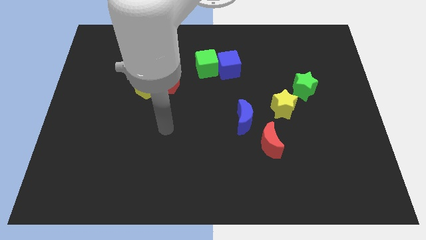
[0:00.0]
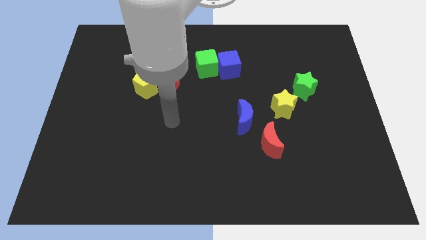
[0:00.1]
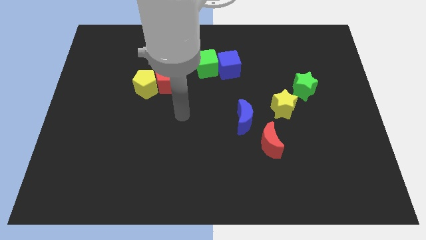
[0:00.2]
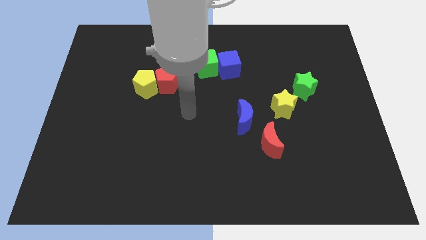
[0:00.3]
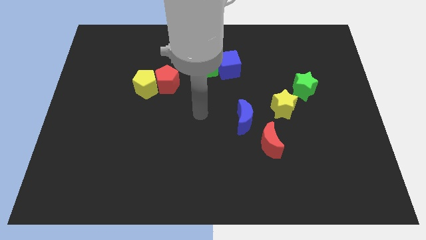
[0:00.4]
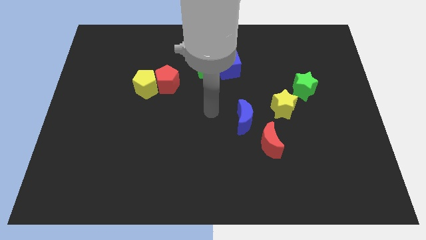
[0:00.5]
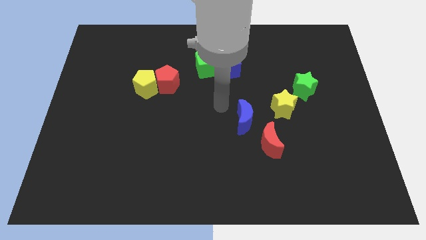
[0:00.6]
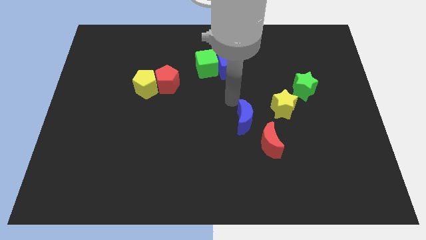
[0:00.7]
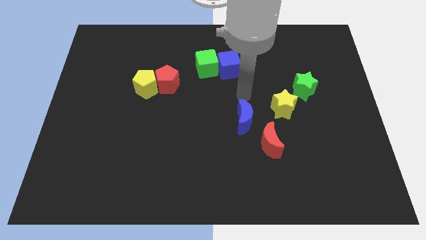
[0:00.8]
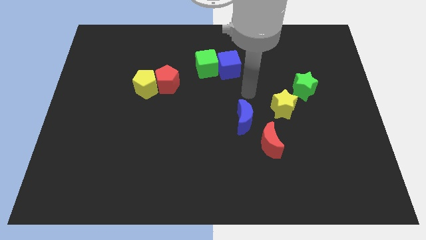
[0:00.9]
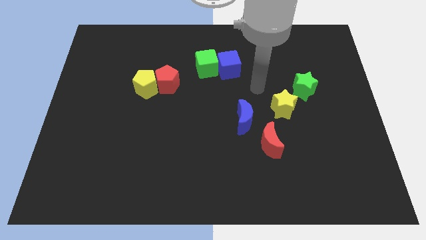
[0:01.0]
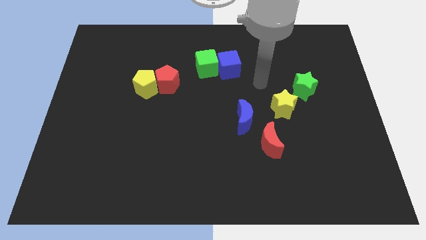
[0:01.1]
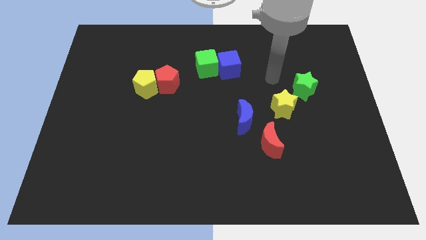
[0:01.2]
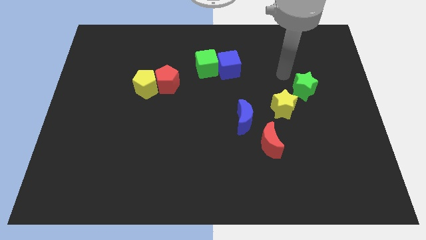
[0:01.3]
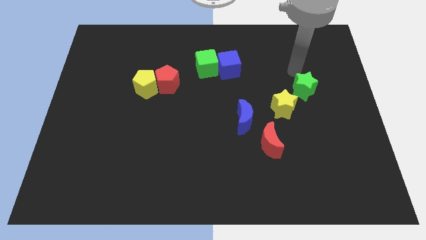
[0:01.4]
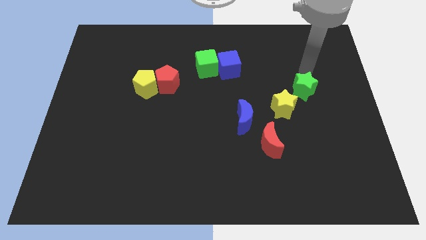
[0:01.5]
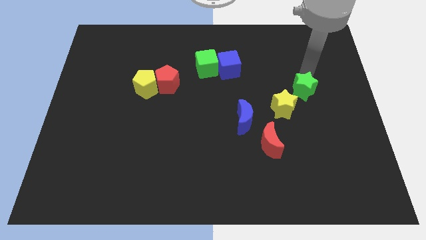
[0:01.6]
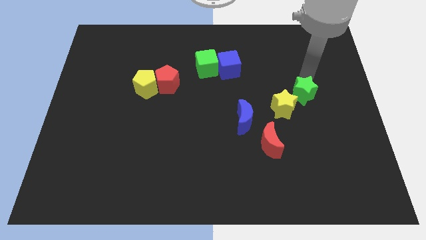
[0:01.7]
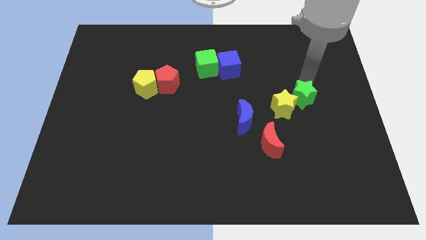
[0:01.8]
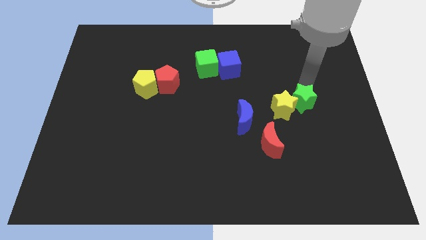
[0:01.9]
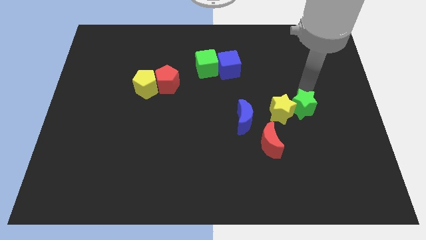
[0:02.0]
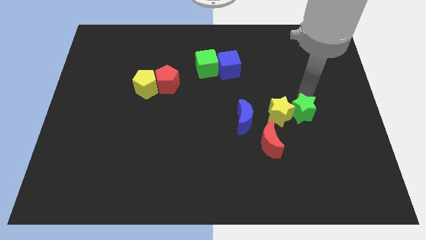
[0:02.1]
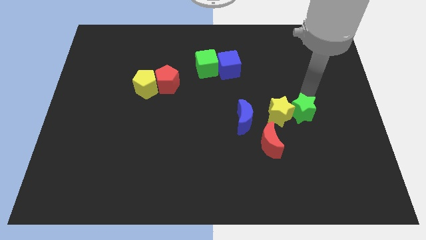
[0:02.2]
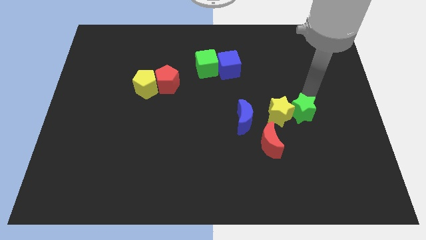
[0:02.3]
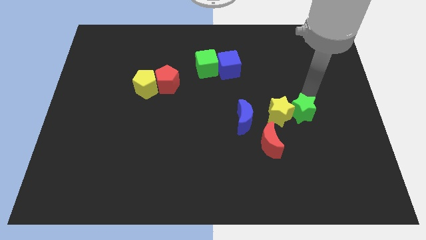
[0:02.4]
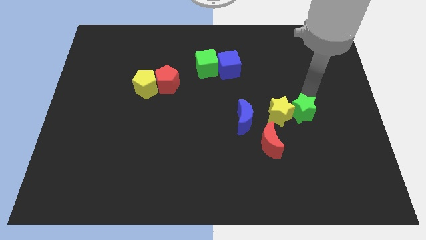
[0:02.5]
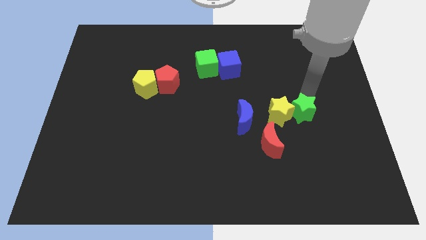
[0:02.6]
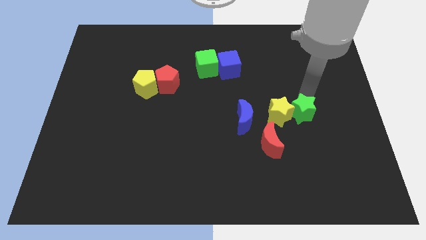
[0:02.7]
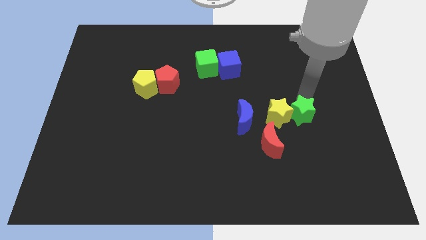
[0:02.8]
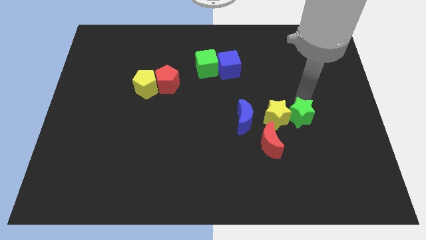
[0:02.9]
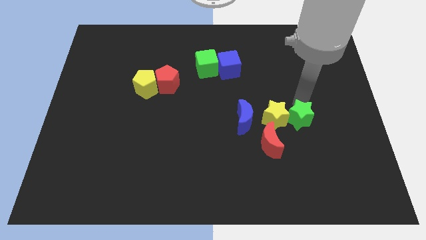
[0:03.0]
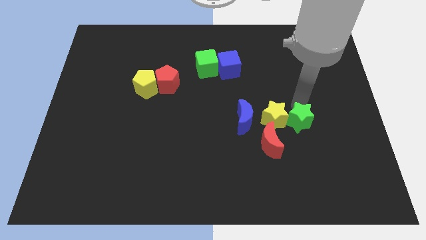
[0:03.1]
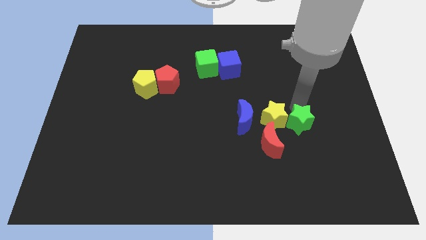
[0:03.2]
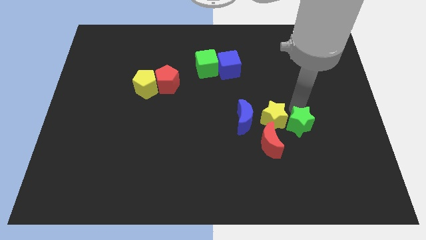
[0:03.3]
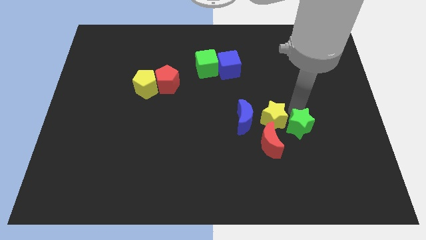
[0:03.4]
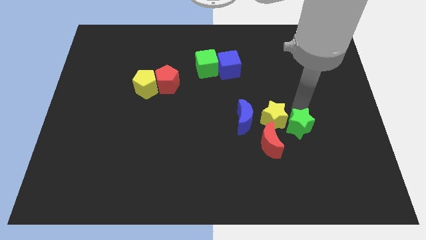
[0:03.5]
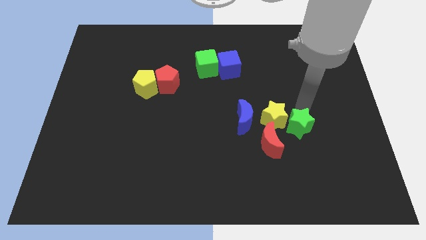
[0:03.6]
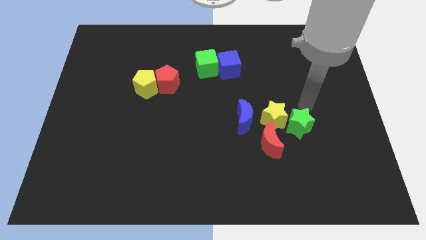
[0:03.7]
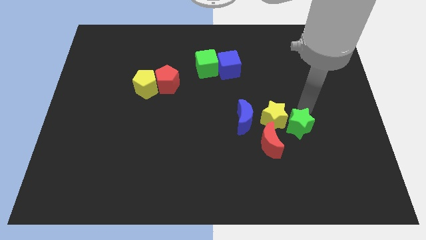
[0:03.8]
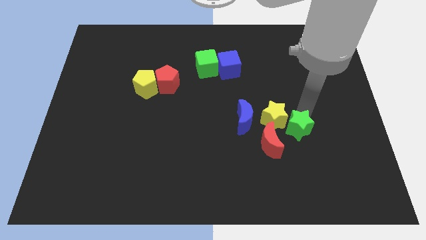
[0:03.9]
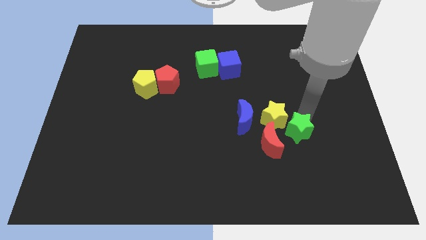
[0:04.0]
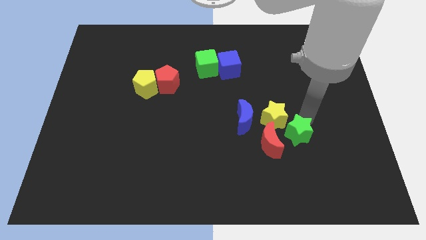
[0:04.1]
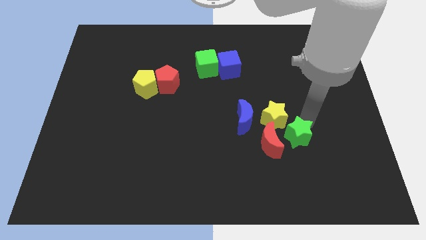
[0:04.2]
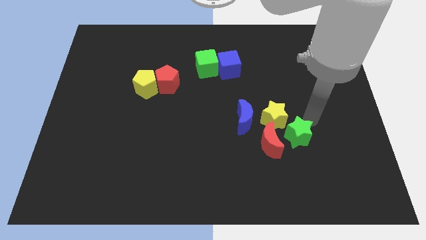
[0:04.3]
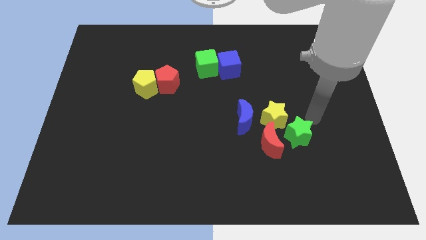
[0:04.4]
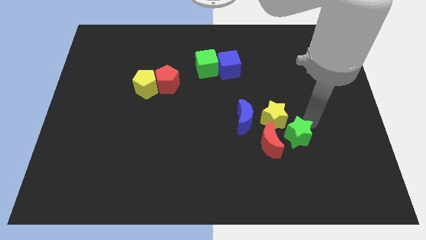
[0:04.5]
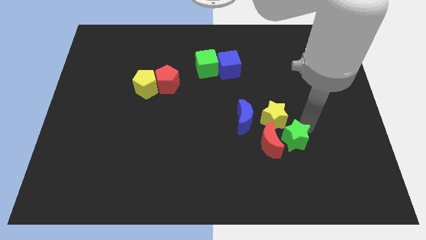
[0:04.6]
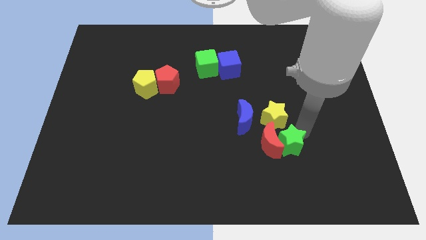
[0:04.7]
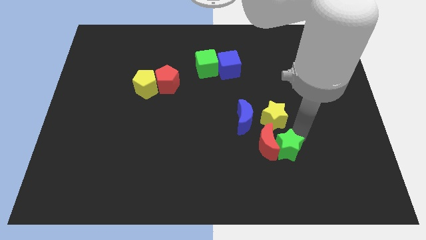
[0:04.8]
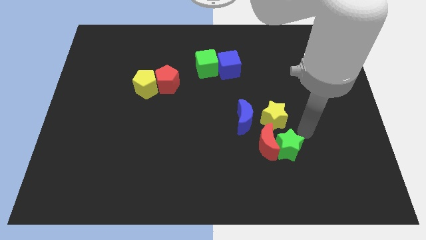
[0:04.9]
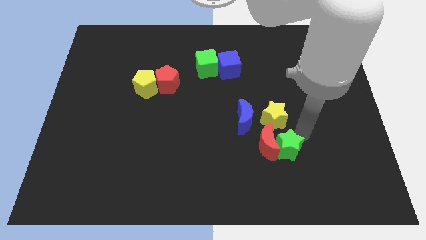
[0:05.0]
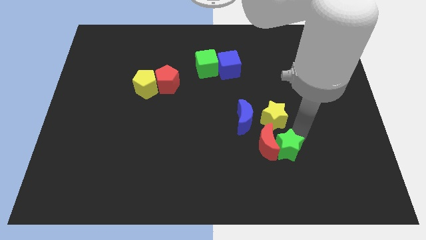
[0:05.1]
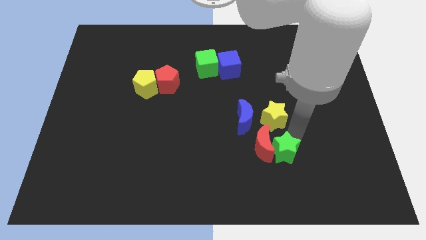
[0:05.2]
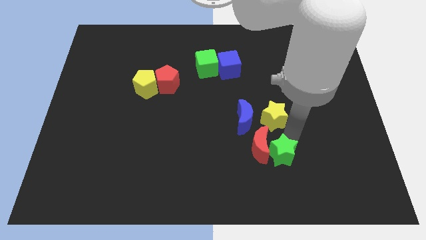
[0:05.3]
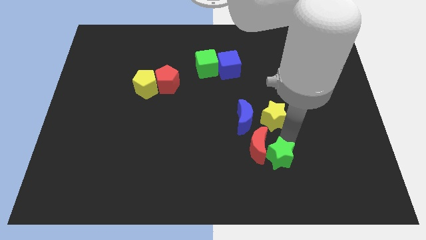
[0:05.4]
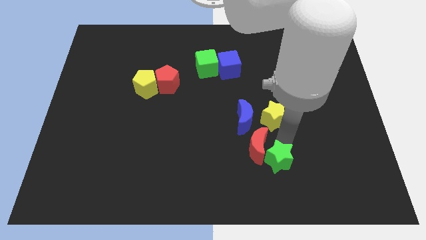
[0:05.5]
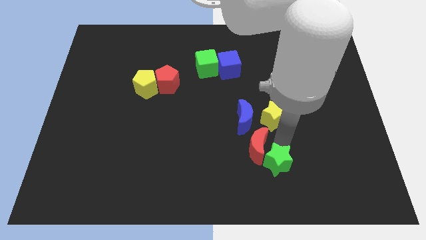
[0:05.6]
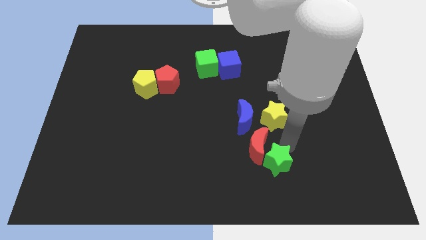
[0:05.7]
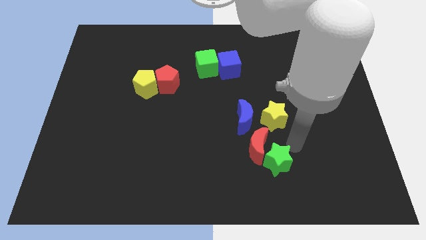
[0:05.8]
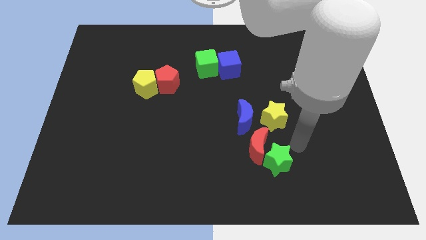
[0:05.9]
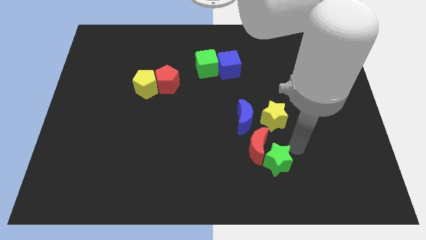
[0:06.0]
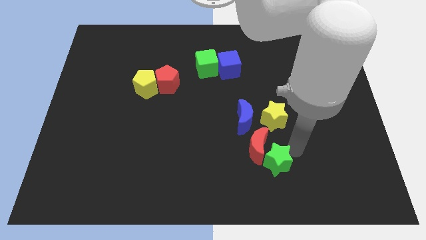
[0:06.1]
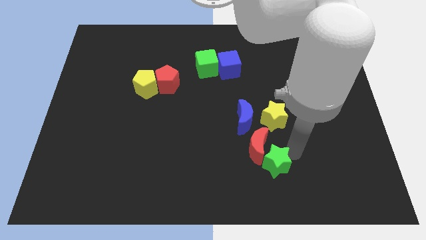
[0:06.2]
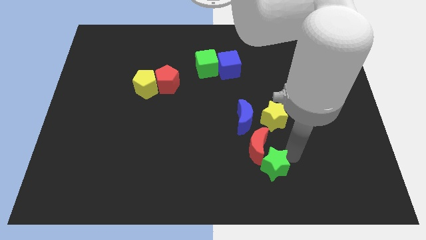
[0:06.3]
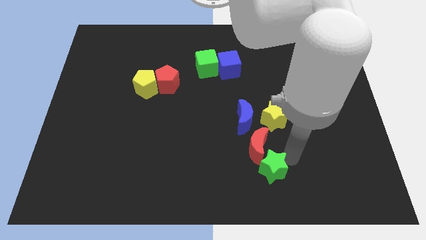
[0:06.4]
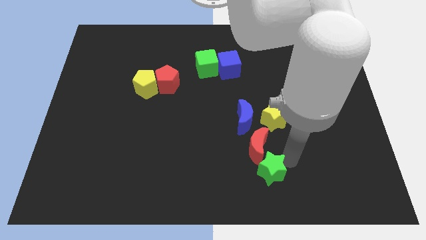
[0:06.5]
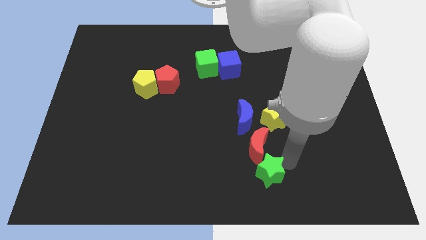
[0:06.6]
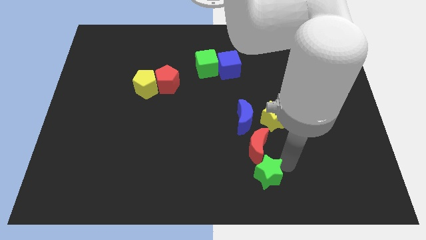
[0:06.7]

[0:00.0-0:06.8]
move the green star to the bottom

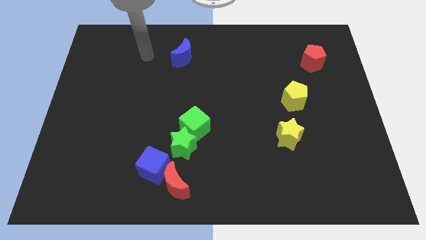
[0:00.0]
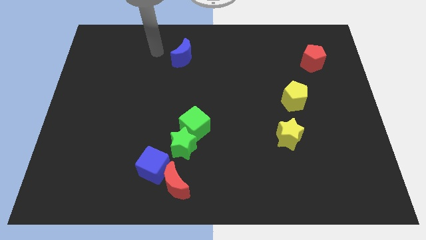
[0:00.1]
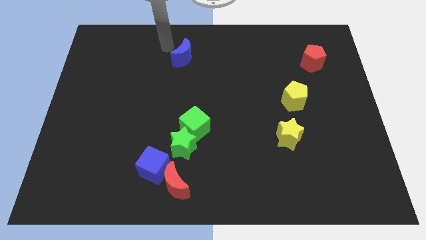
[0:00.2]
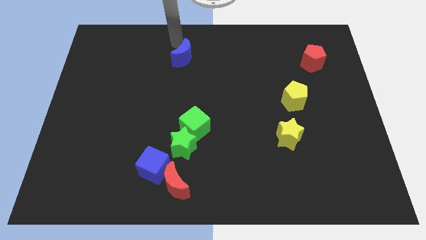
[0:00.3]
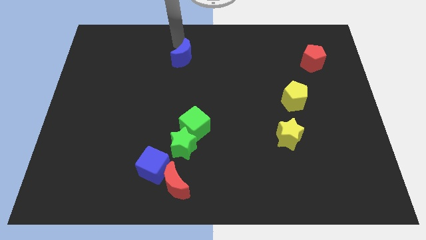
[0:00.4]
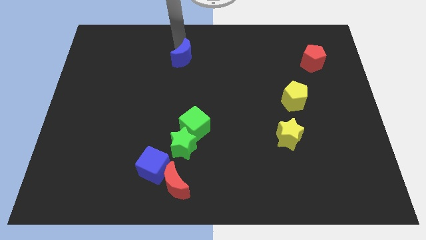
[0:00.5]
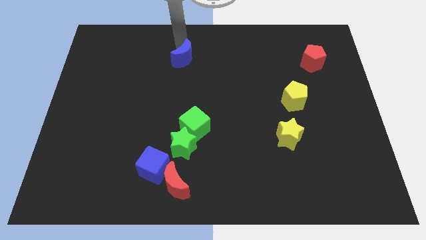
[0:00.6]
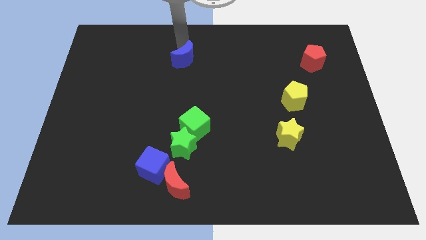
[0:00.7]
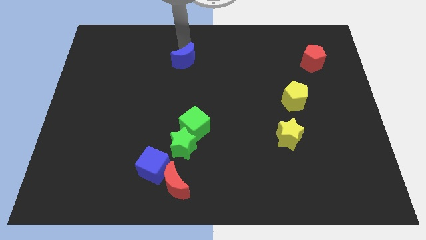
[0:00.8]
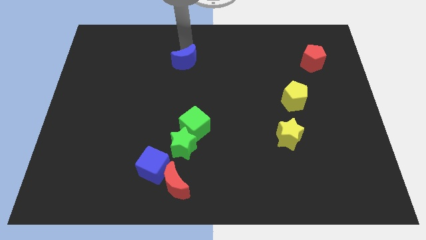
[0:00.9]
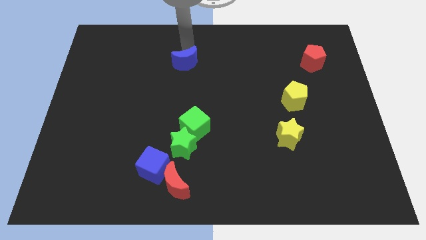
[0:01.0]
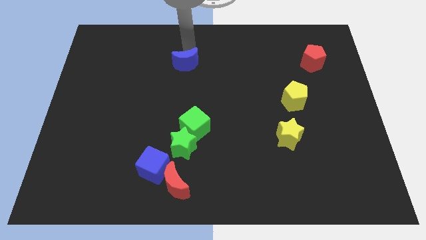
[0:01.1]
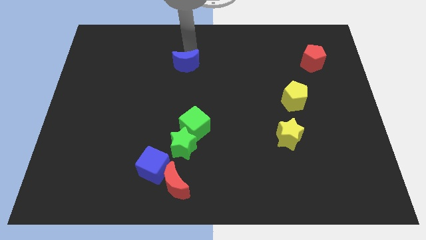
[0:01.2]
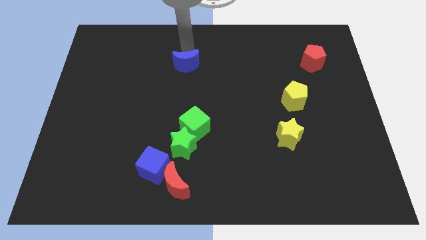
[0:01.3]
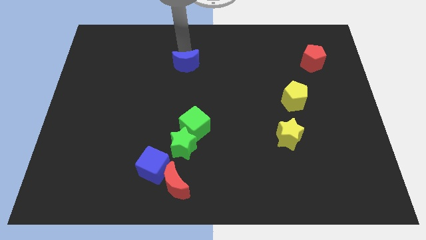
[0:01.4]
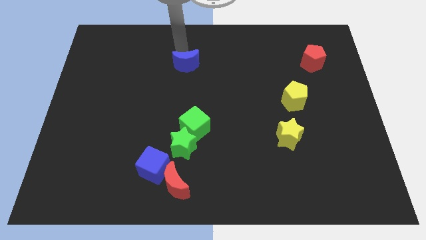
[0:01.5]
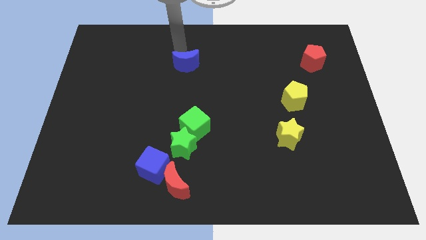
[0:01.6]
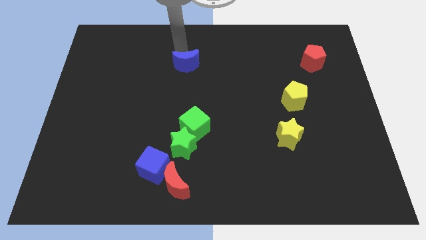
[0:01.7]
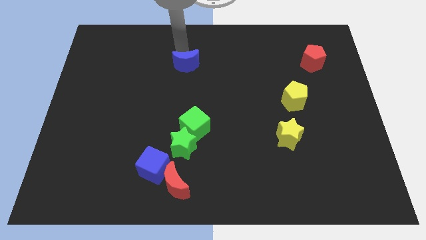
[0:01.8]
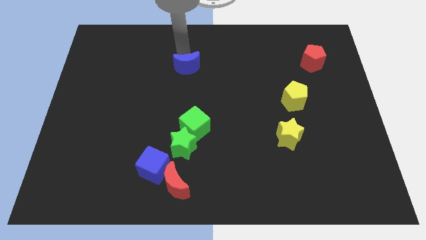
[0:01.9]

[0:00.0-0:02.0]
move the blue moon to the center
